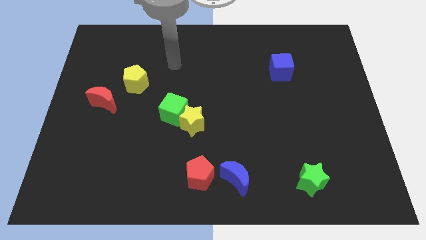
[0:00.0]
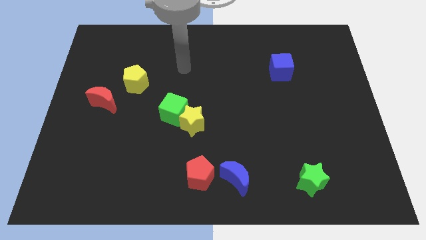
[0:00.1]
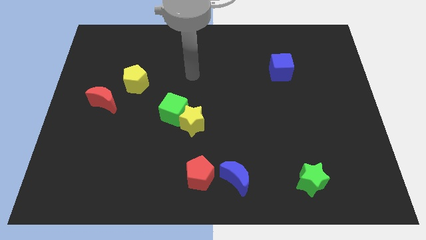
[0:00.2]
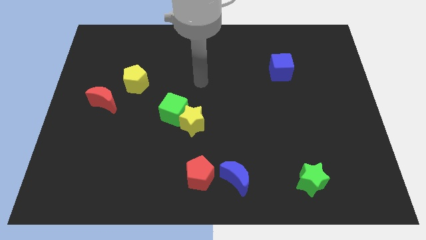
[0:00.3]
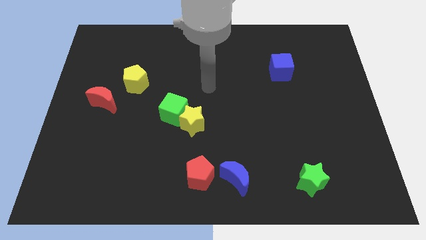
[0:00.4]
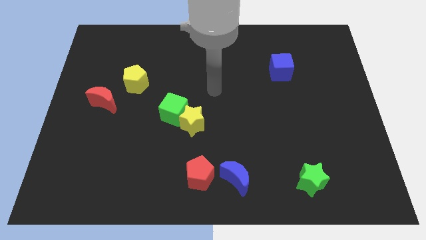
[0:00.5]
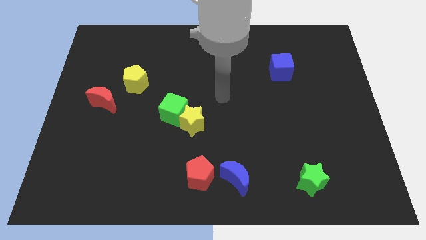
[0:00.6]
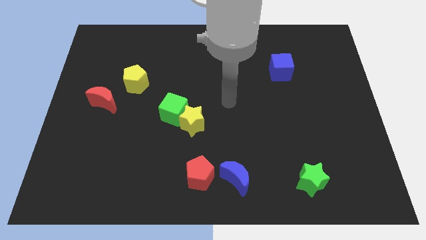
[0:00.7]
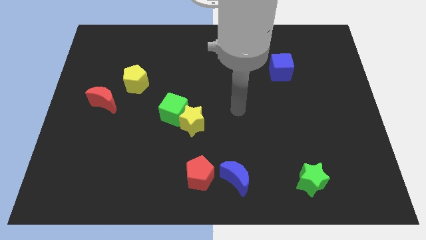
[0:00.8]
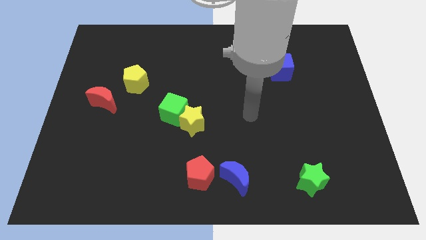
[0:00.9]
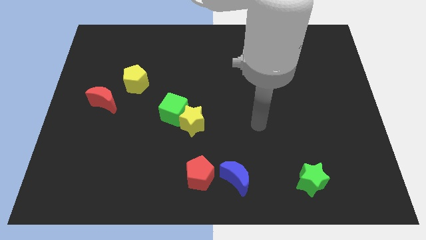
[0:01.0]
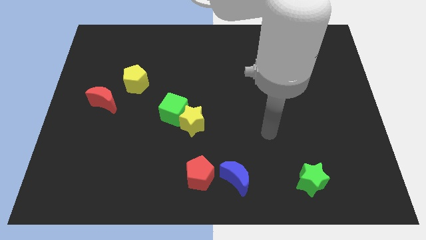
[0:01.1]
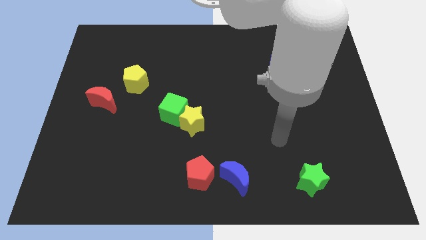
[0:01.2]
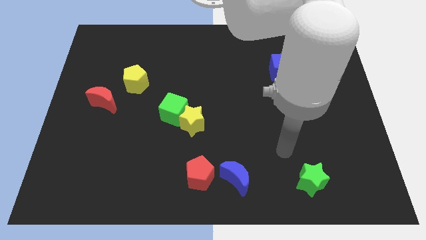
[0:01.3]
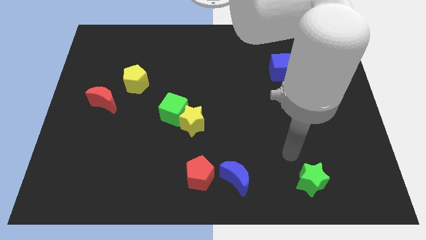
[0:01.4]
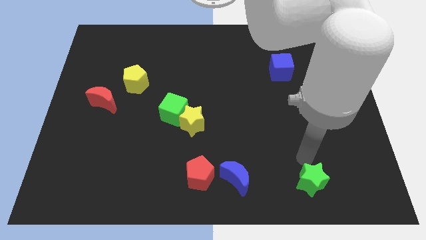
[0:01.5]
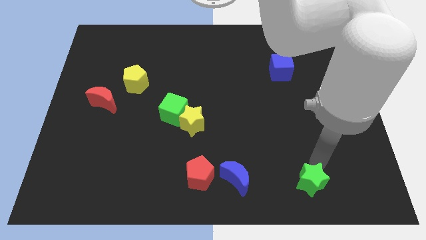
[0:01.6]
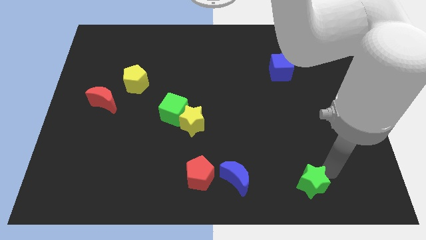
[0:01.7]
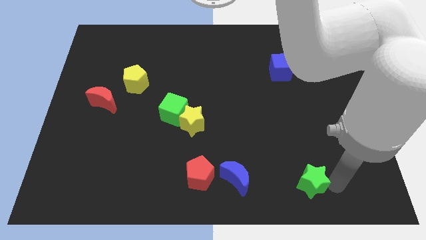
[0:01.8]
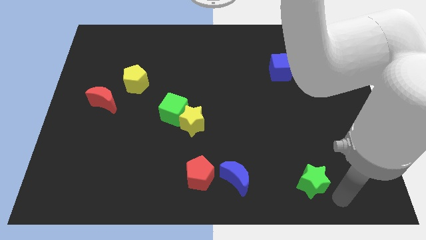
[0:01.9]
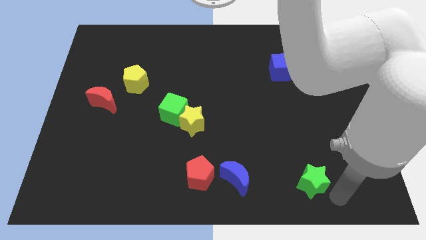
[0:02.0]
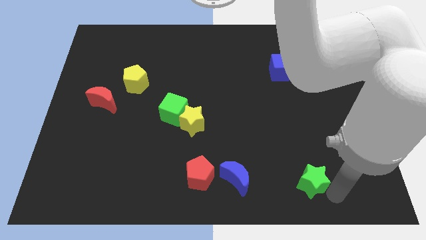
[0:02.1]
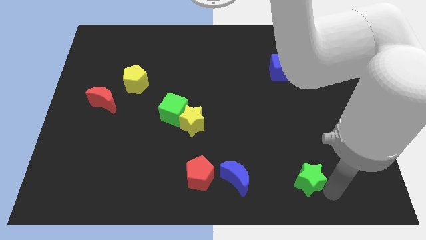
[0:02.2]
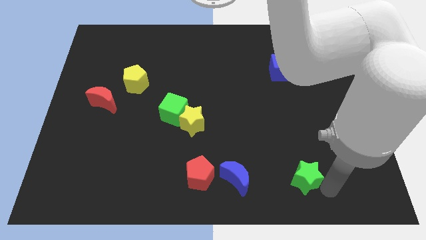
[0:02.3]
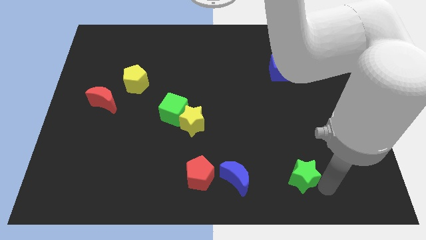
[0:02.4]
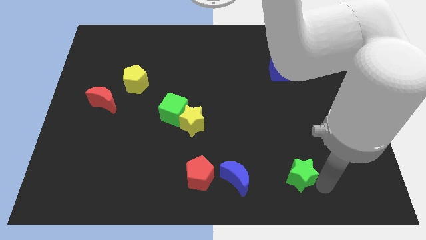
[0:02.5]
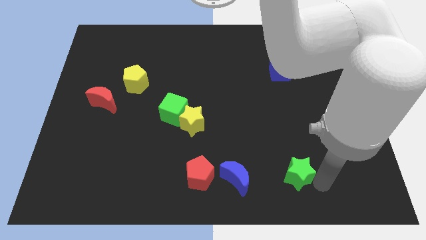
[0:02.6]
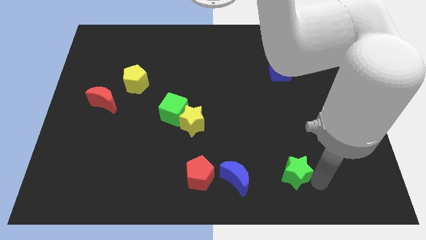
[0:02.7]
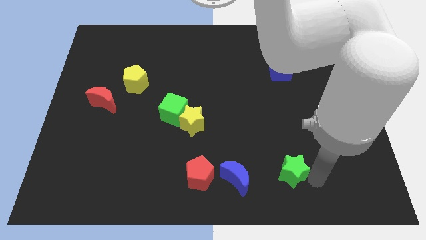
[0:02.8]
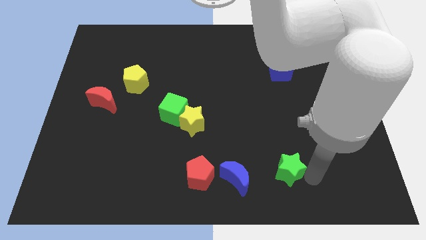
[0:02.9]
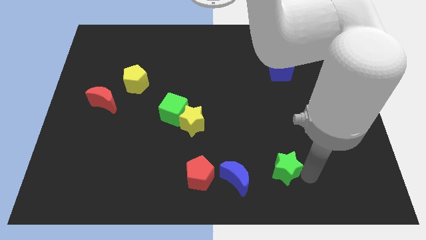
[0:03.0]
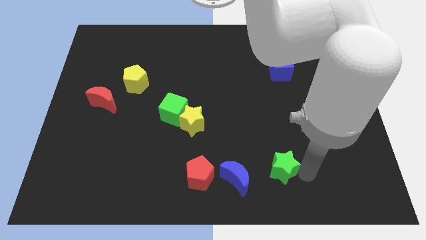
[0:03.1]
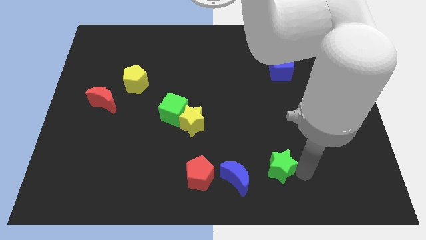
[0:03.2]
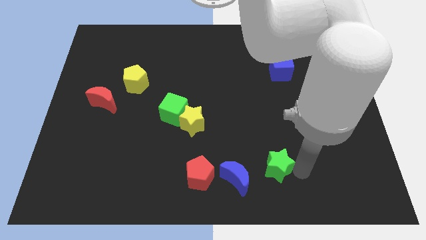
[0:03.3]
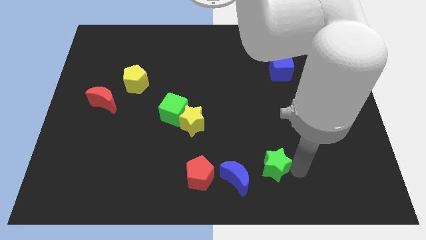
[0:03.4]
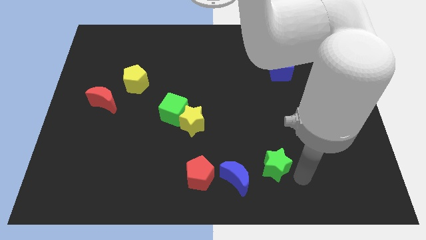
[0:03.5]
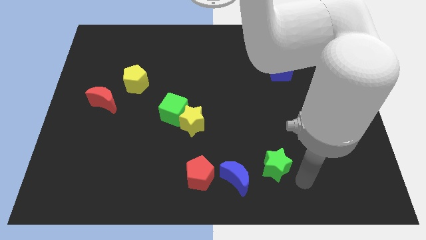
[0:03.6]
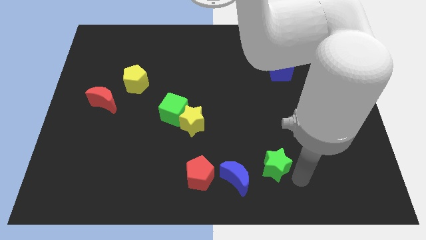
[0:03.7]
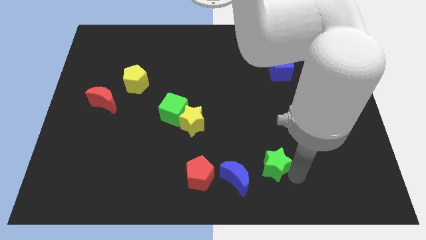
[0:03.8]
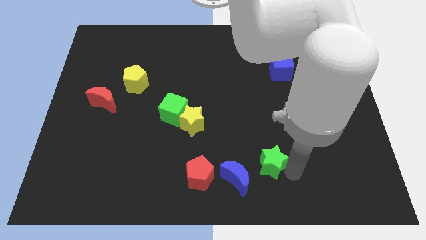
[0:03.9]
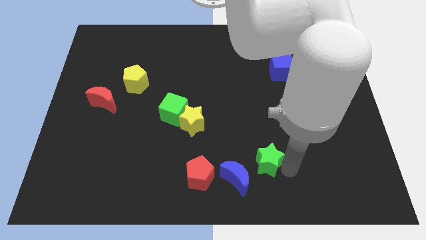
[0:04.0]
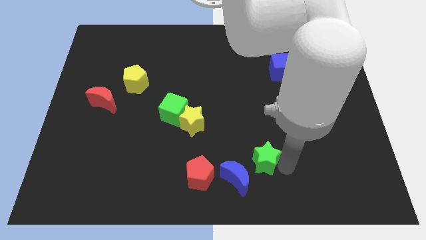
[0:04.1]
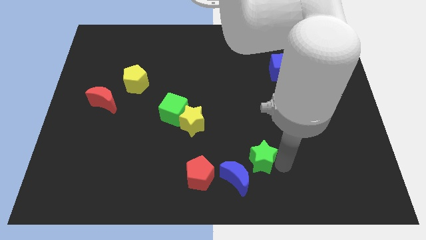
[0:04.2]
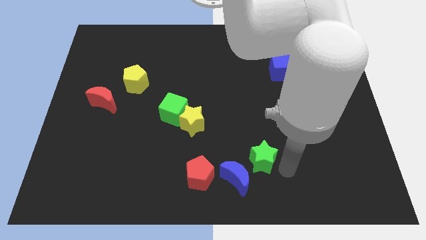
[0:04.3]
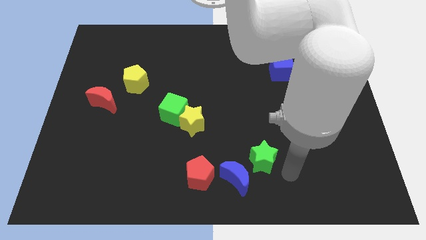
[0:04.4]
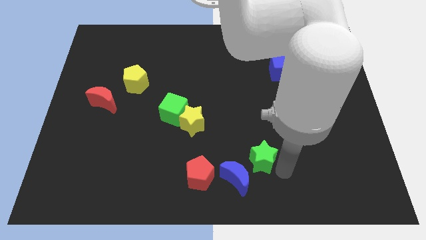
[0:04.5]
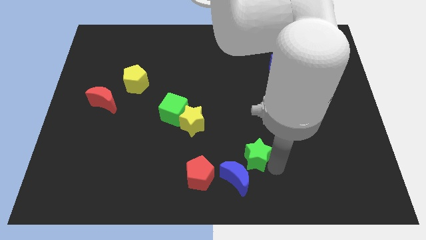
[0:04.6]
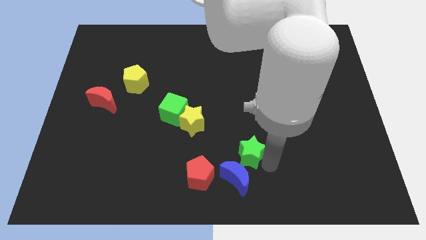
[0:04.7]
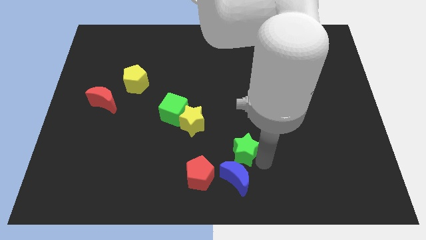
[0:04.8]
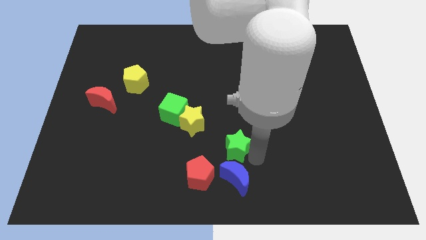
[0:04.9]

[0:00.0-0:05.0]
push the green star diagonally down and to the right of the yellow star

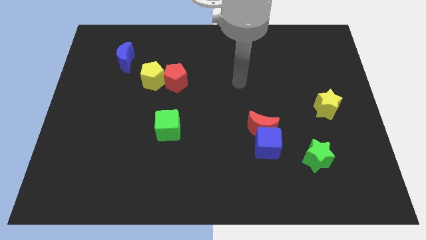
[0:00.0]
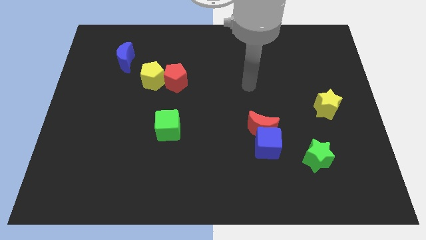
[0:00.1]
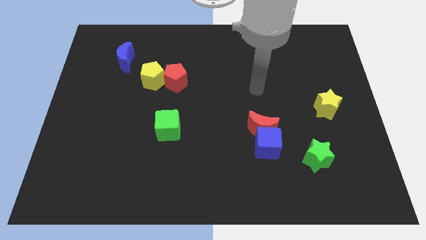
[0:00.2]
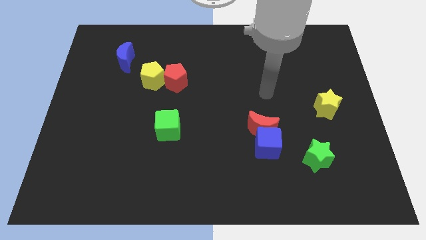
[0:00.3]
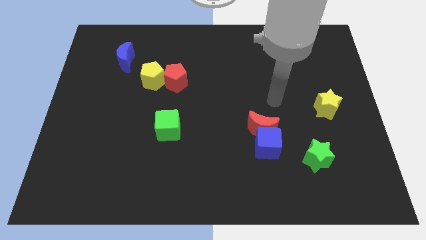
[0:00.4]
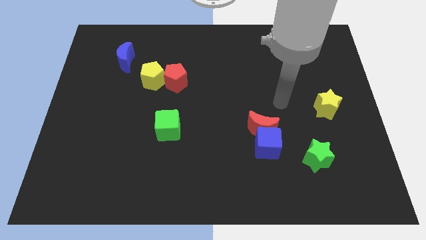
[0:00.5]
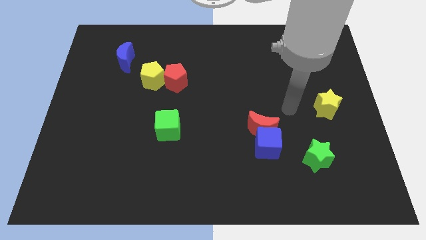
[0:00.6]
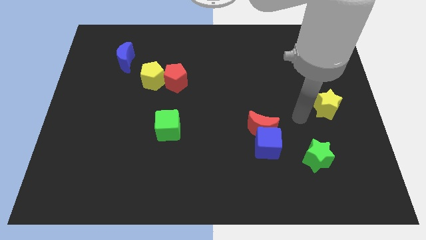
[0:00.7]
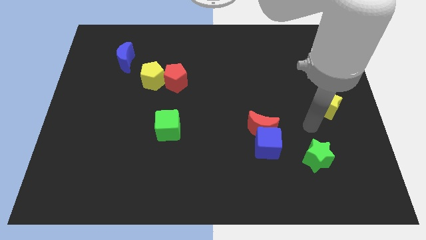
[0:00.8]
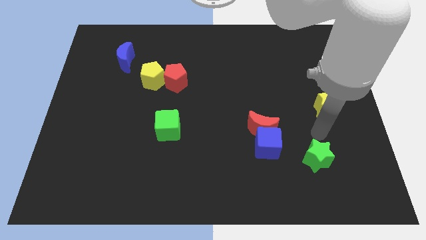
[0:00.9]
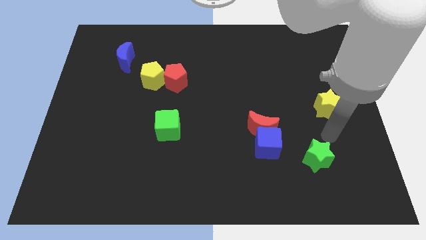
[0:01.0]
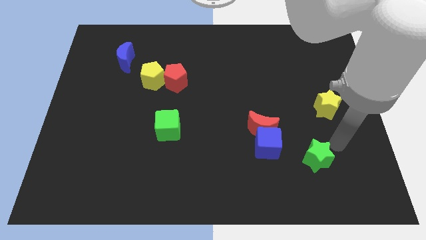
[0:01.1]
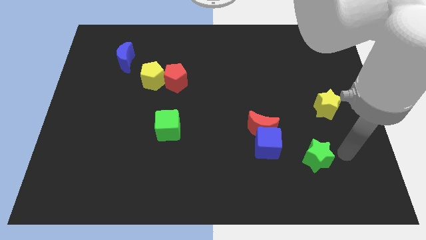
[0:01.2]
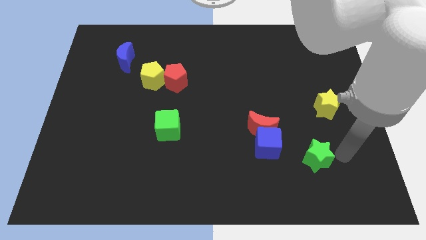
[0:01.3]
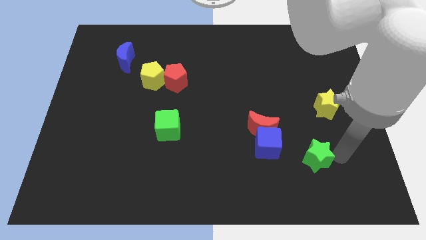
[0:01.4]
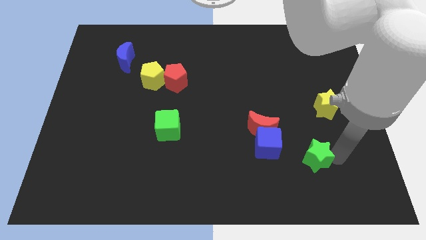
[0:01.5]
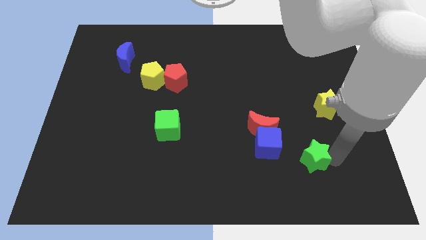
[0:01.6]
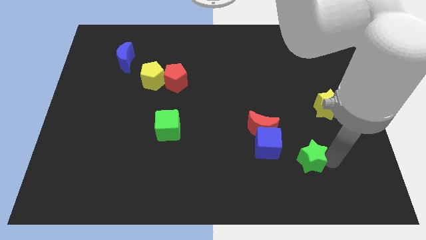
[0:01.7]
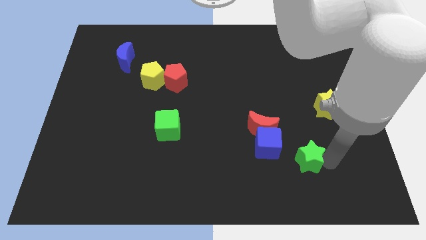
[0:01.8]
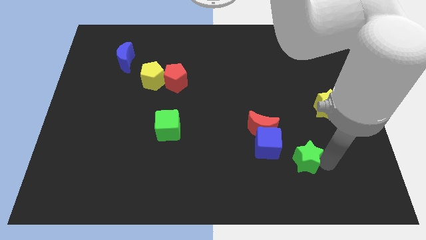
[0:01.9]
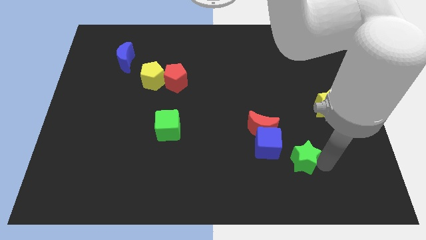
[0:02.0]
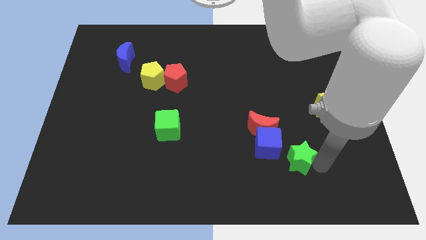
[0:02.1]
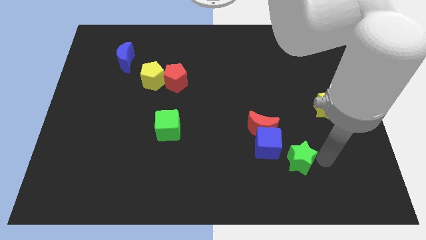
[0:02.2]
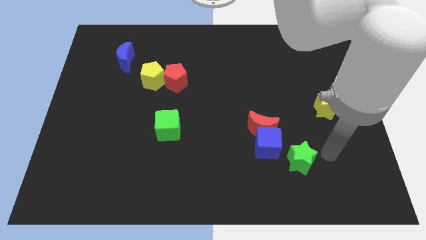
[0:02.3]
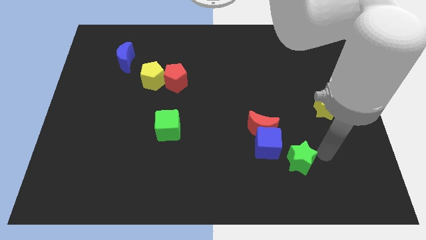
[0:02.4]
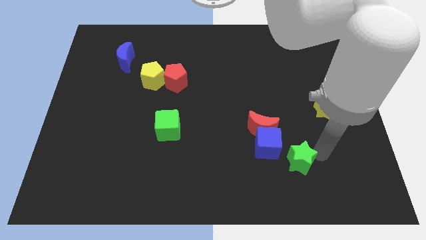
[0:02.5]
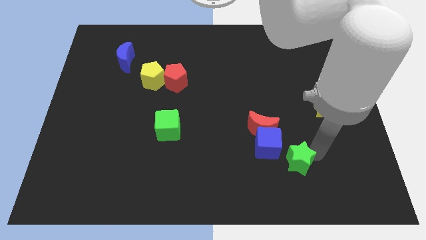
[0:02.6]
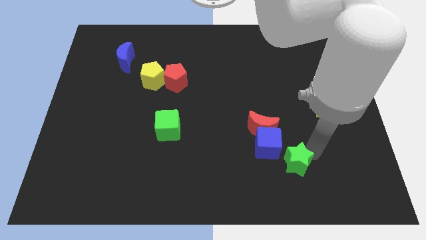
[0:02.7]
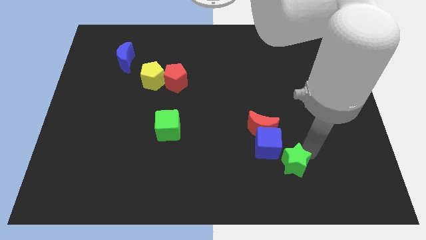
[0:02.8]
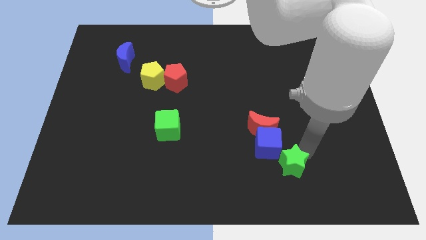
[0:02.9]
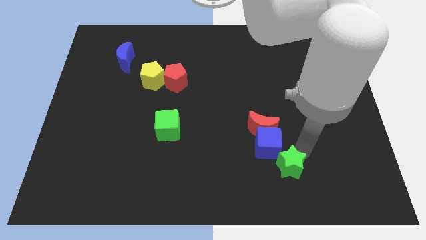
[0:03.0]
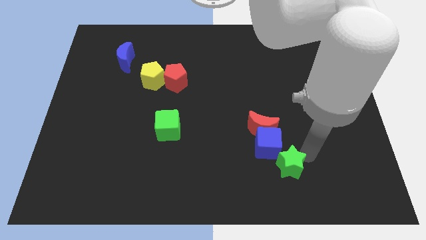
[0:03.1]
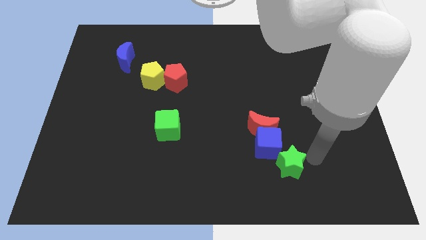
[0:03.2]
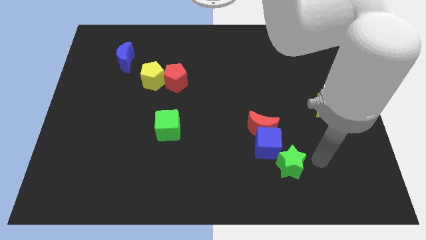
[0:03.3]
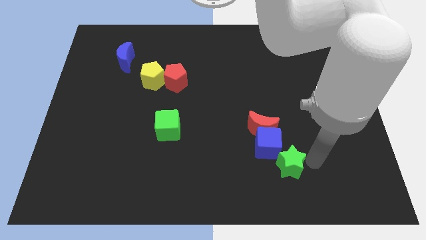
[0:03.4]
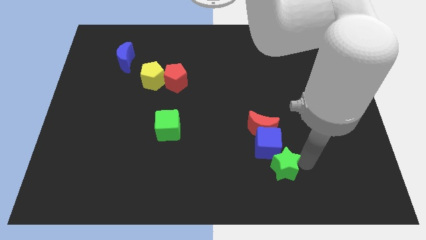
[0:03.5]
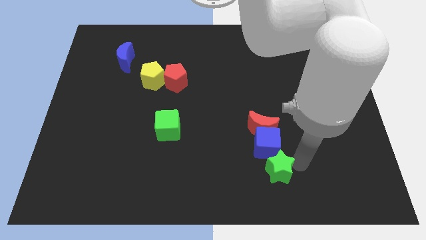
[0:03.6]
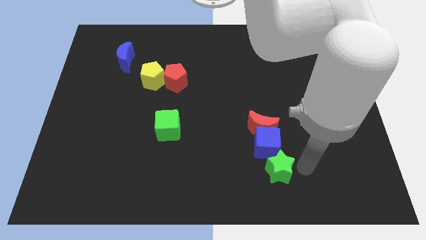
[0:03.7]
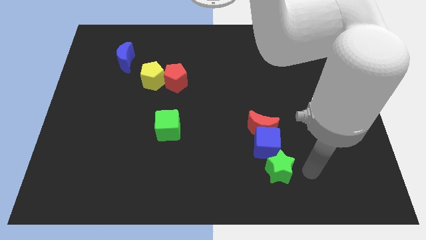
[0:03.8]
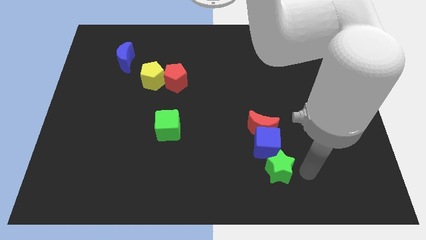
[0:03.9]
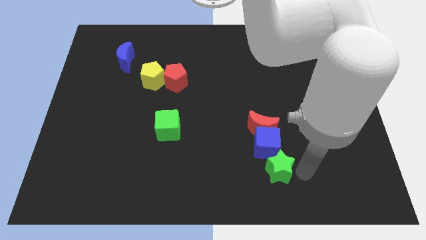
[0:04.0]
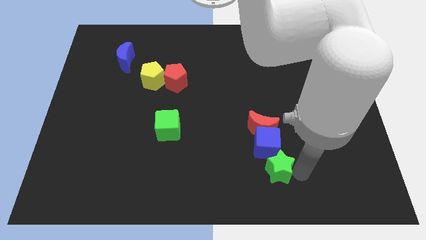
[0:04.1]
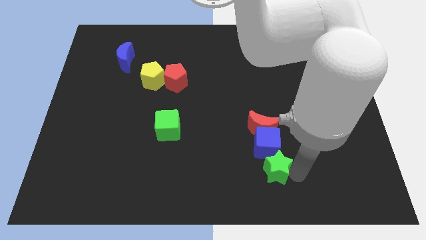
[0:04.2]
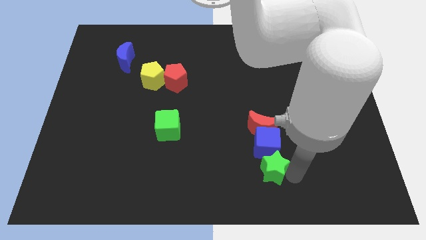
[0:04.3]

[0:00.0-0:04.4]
move the green star to the bottom left side of the blue cube
